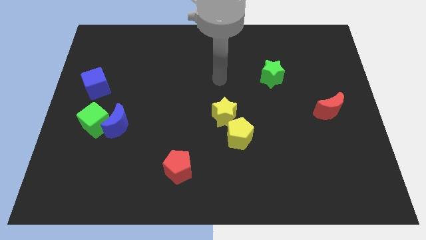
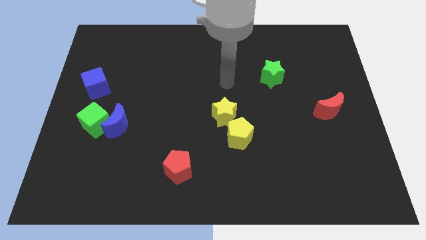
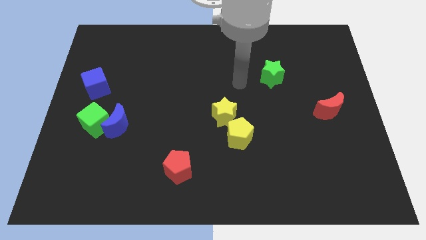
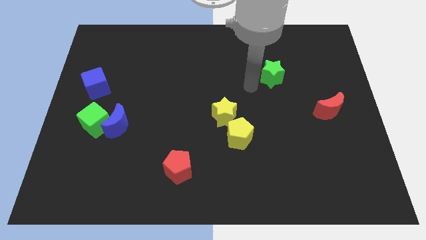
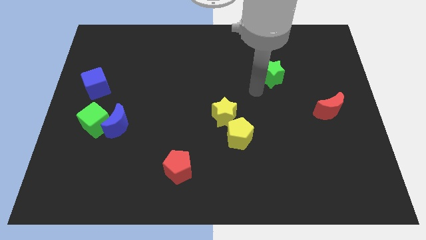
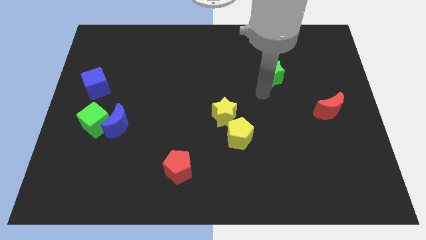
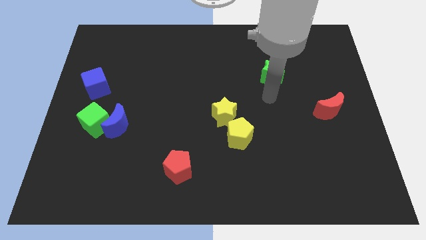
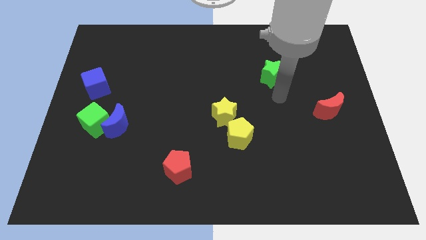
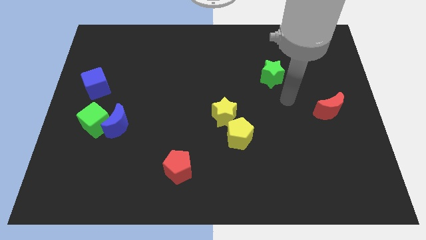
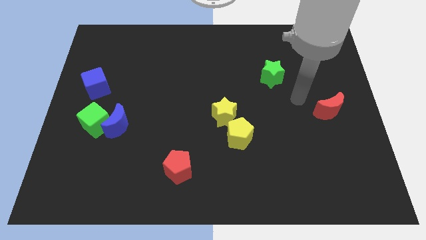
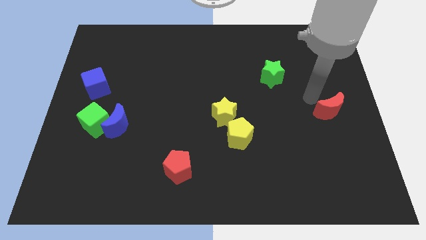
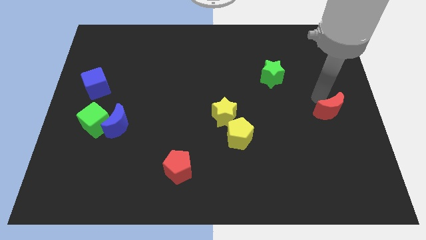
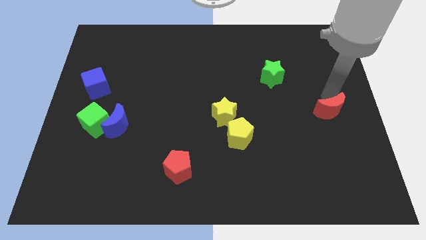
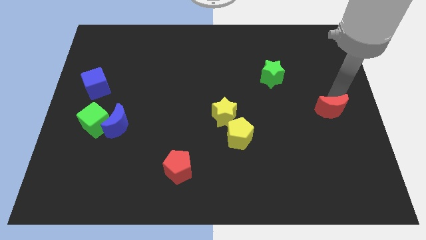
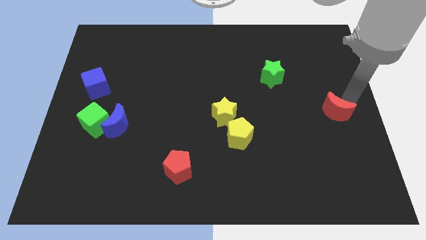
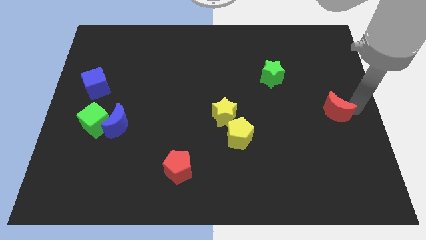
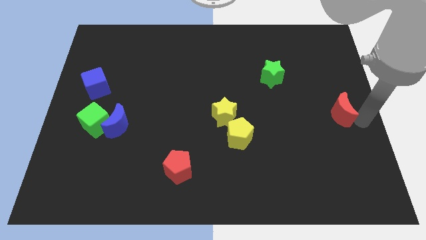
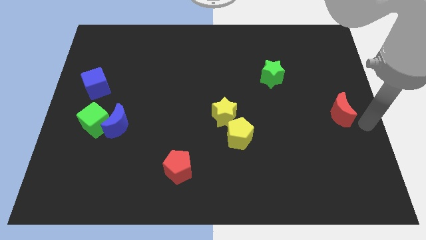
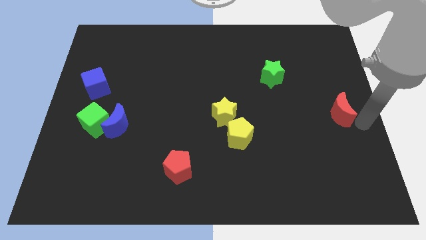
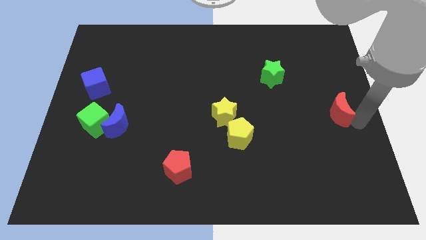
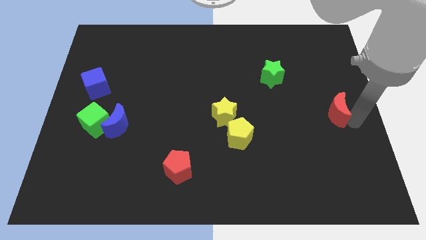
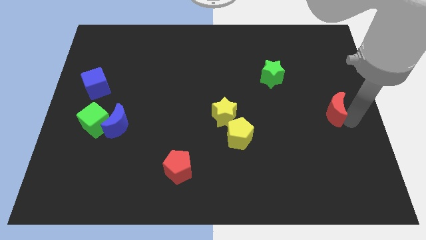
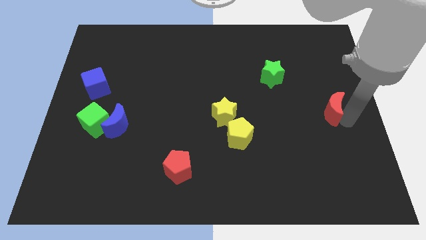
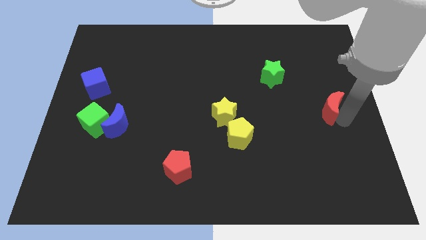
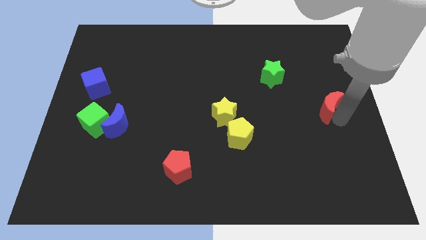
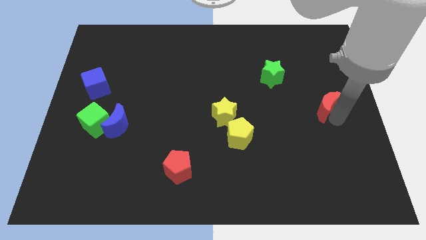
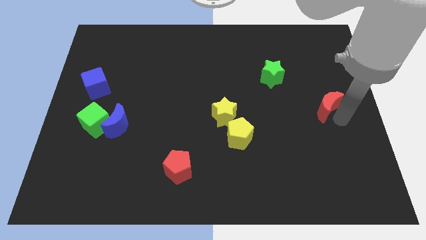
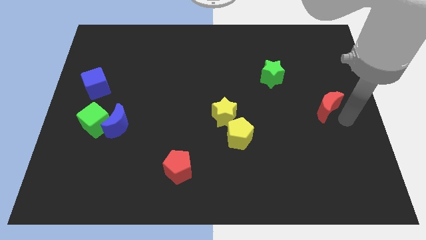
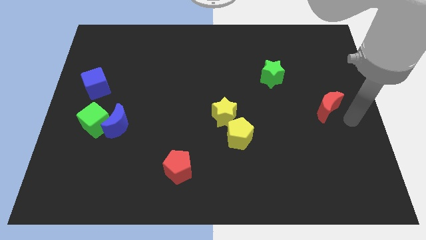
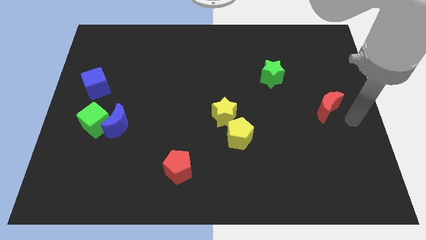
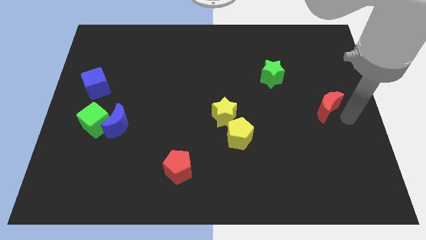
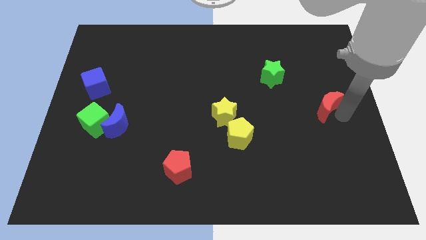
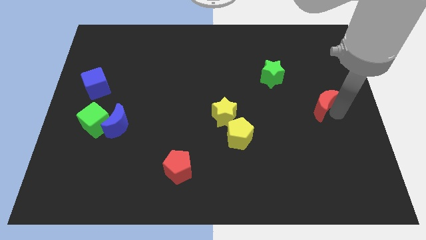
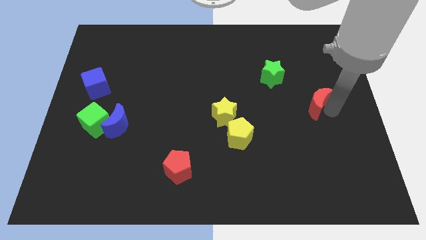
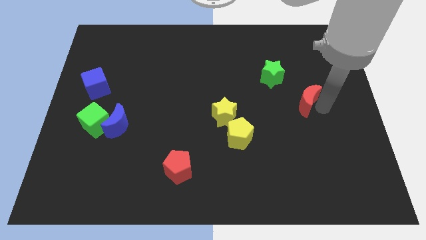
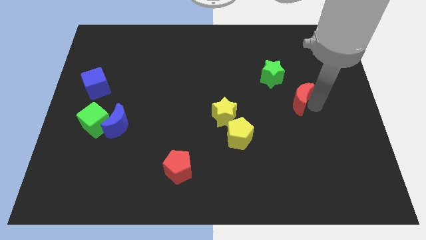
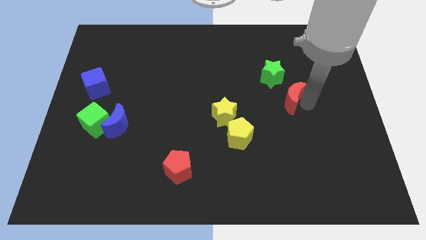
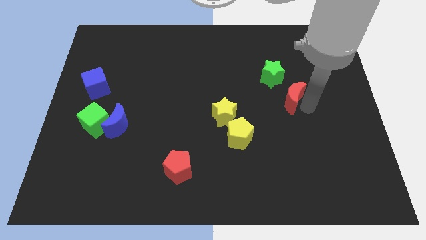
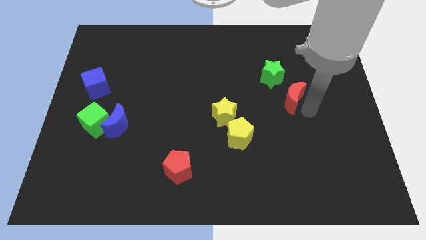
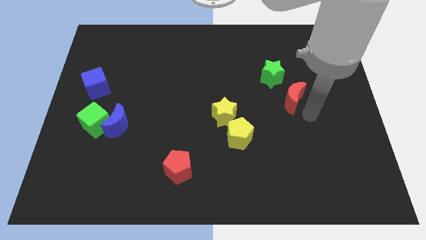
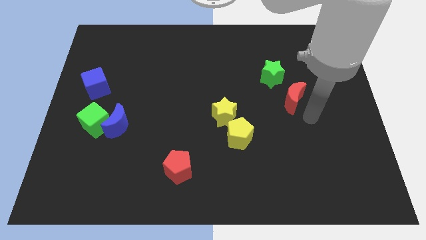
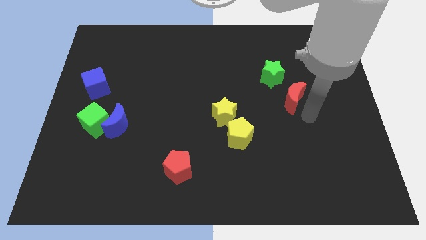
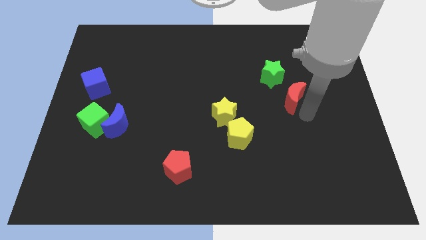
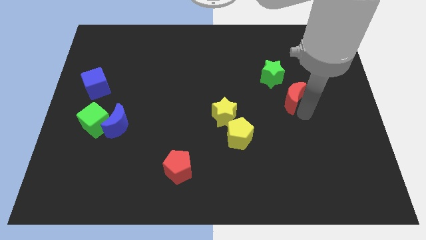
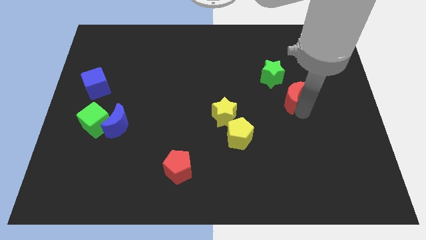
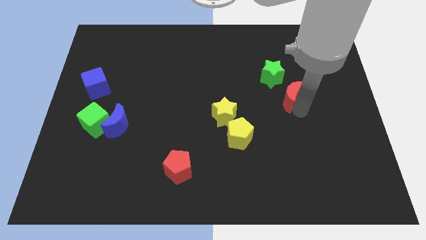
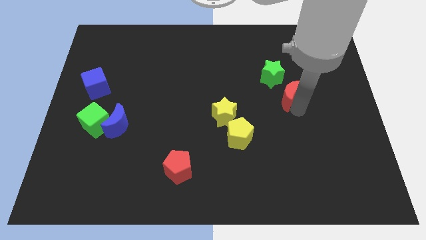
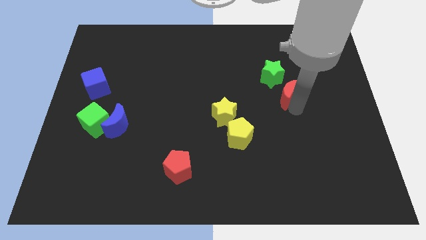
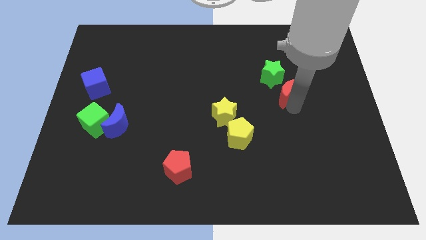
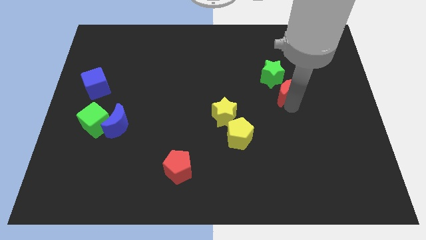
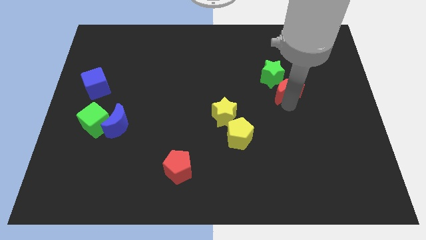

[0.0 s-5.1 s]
put the red moon next to the green star

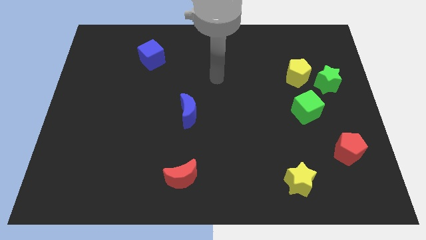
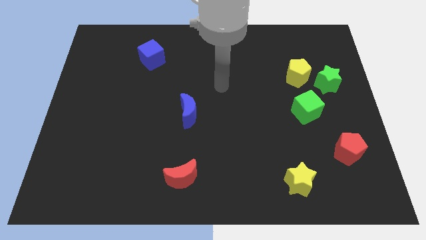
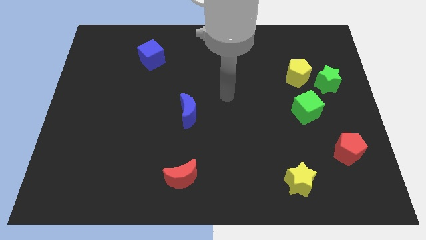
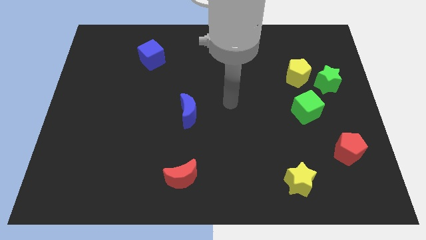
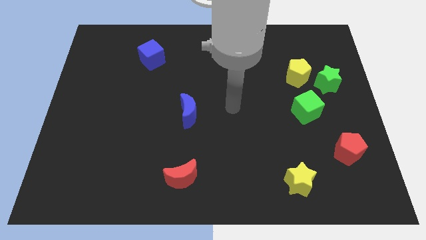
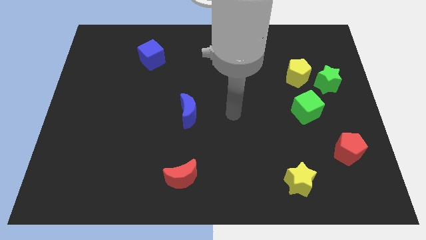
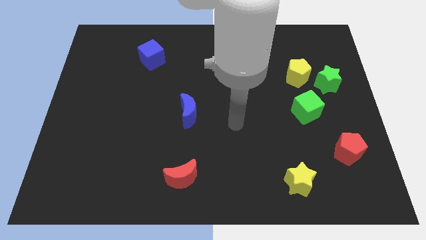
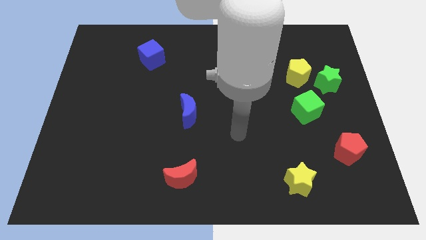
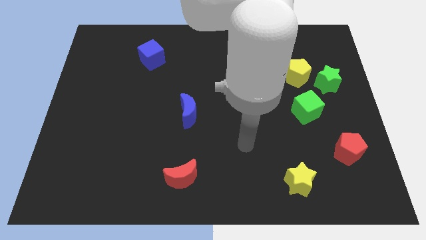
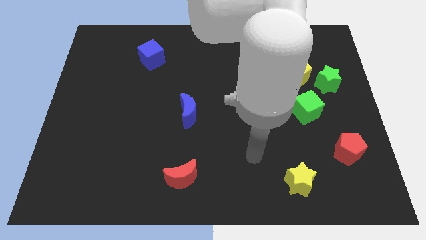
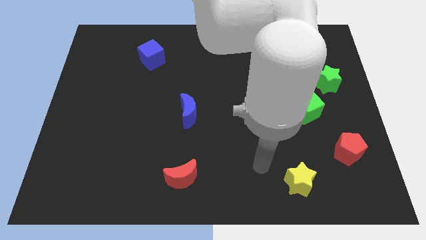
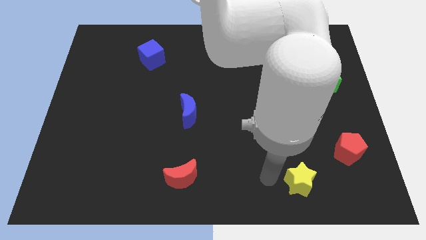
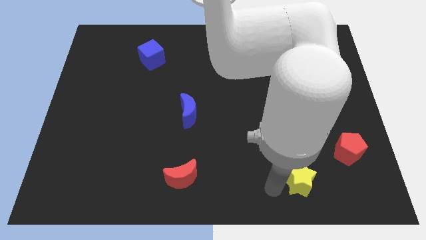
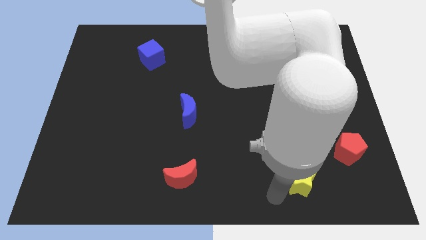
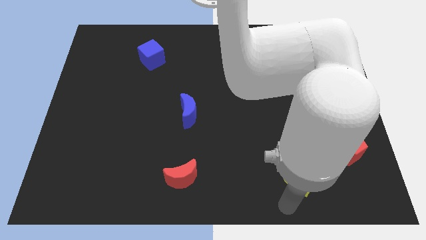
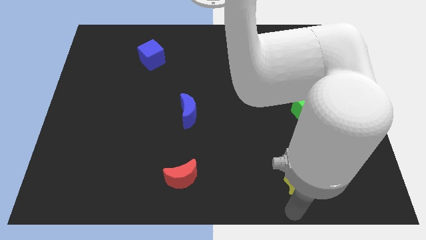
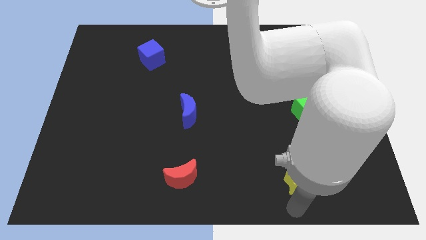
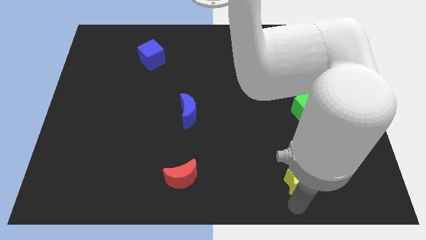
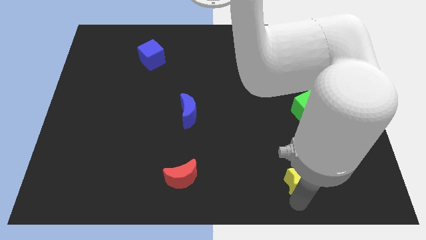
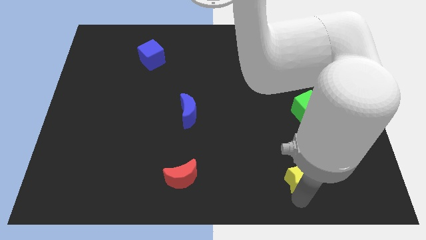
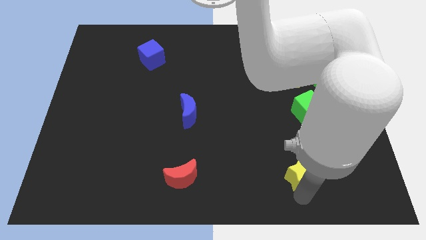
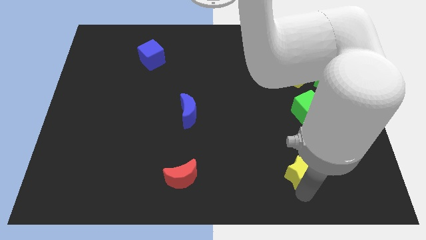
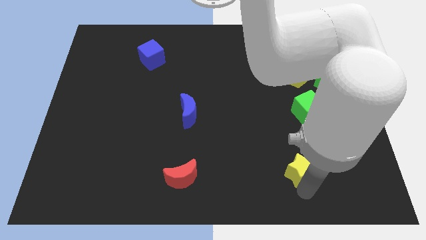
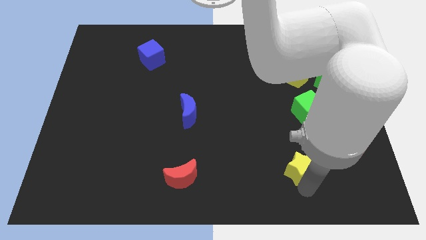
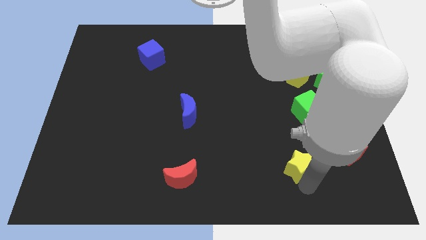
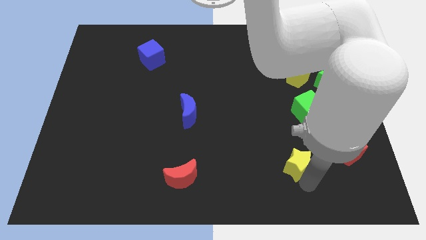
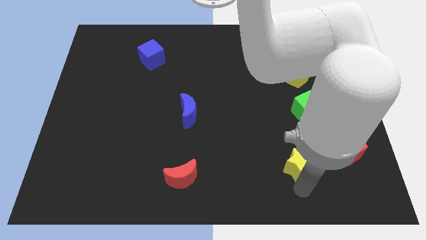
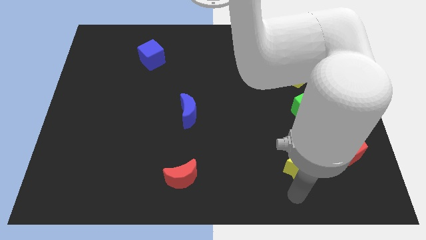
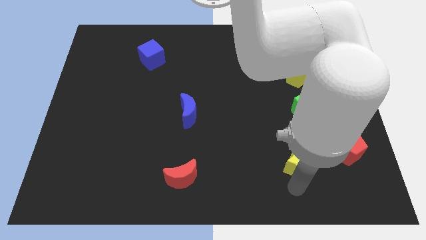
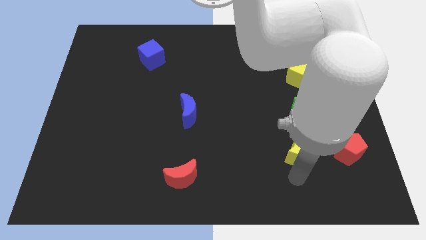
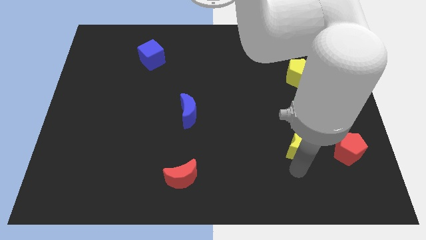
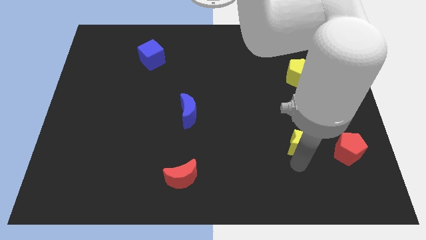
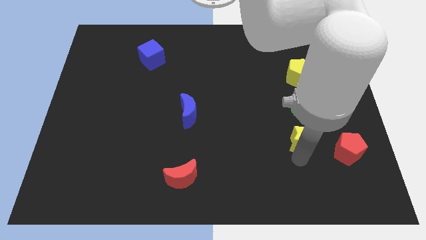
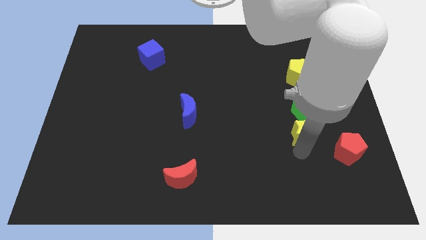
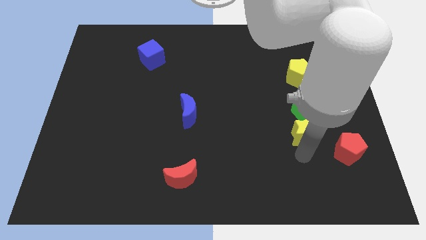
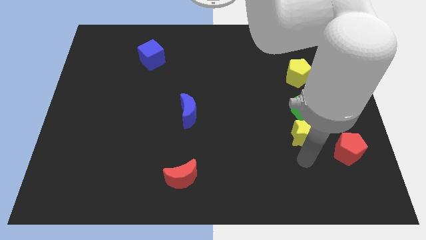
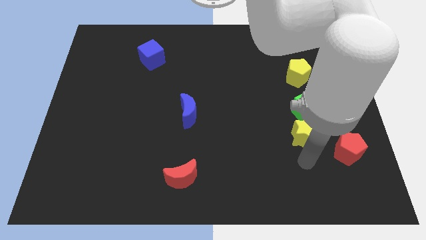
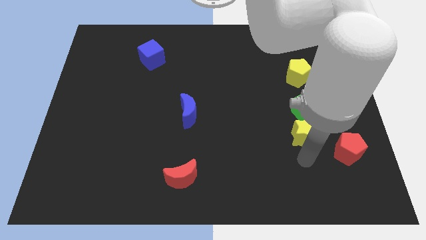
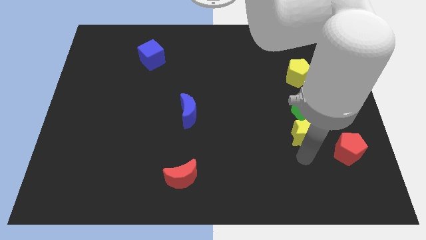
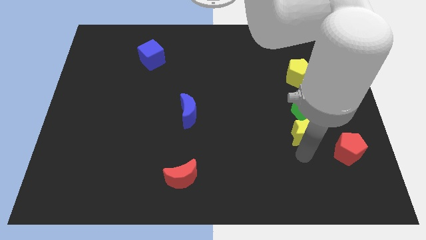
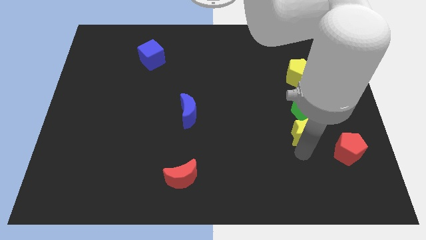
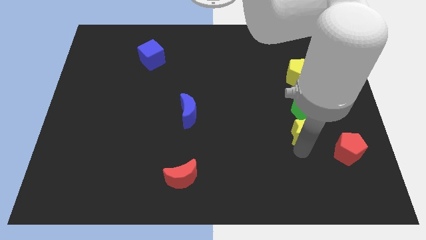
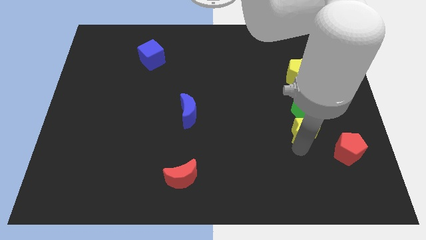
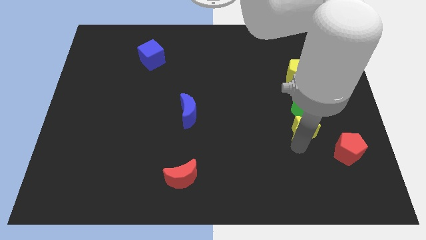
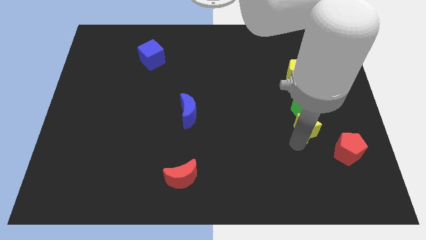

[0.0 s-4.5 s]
push the yellow star close to the green cube
